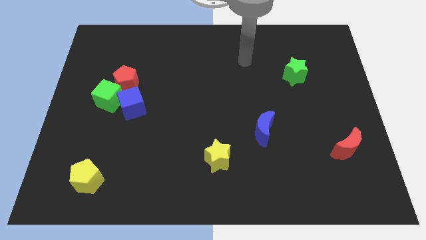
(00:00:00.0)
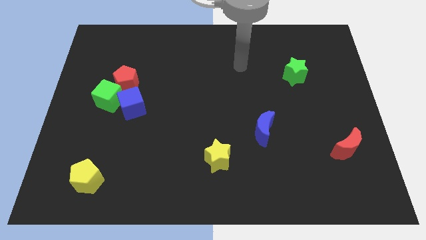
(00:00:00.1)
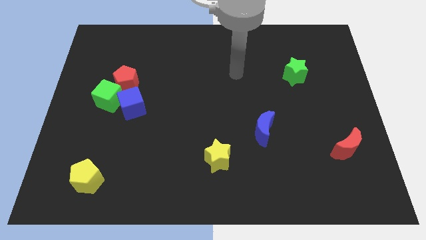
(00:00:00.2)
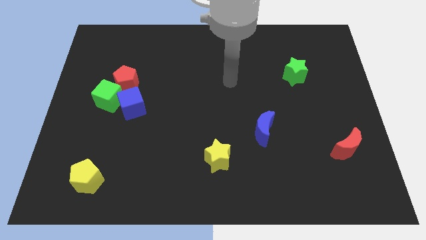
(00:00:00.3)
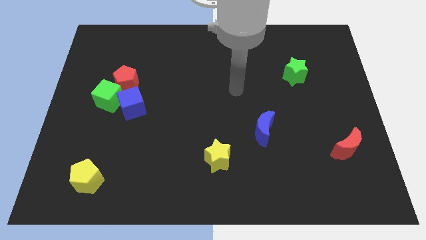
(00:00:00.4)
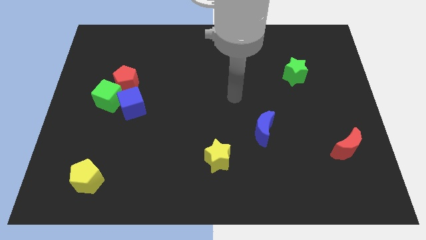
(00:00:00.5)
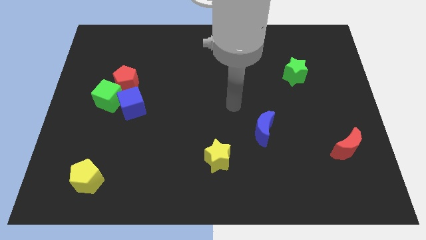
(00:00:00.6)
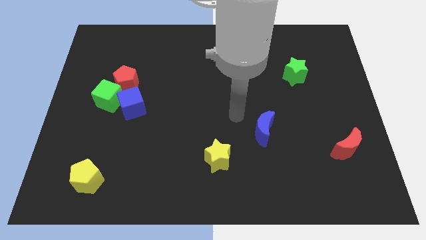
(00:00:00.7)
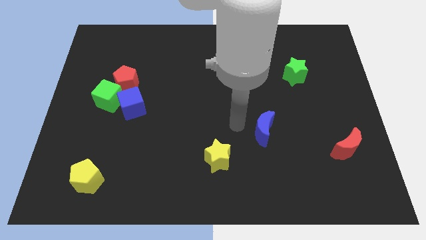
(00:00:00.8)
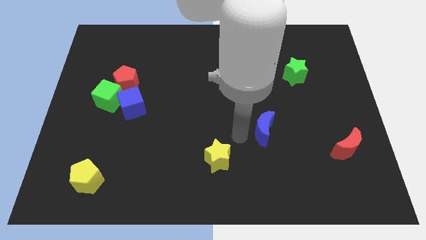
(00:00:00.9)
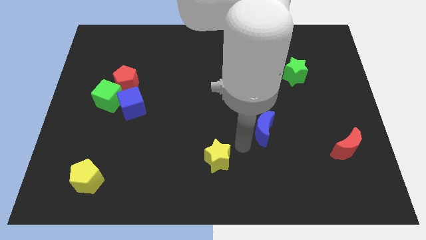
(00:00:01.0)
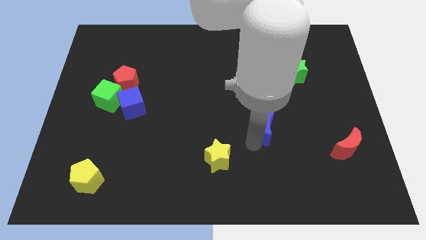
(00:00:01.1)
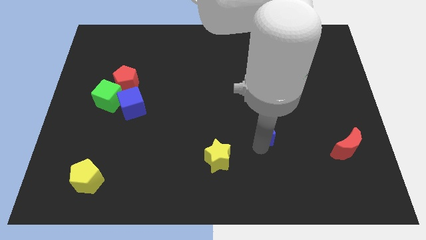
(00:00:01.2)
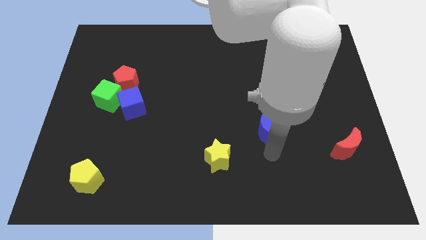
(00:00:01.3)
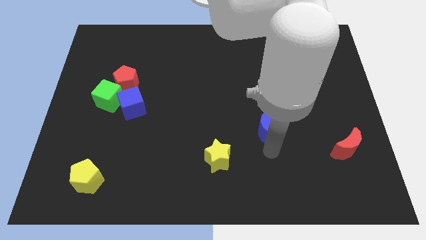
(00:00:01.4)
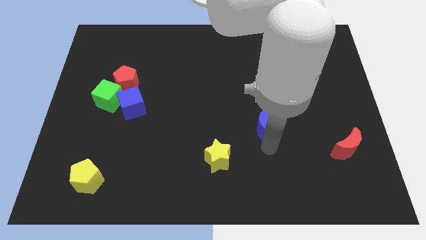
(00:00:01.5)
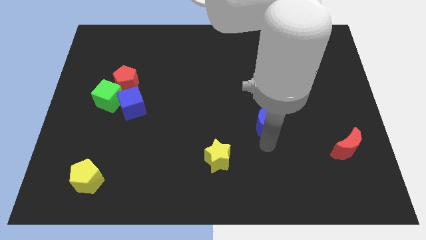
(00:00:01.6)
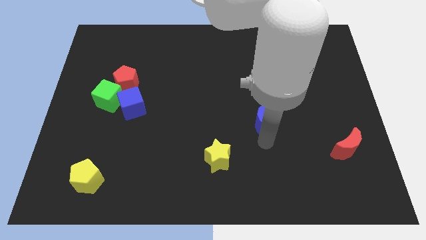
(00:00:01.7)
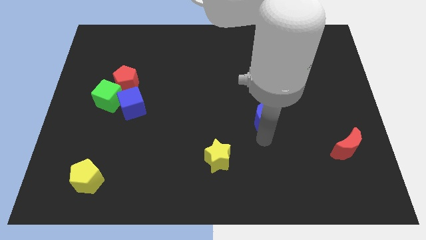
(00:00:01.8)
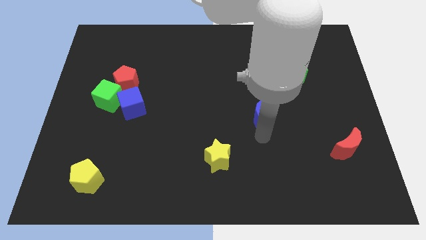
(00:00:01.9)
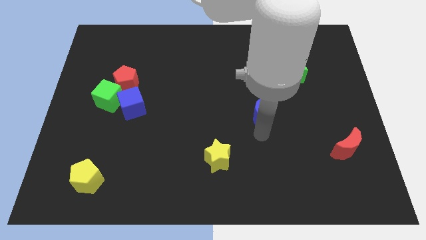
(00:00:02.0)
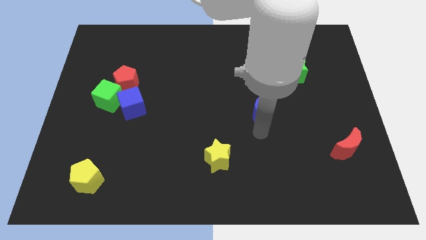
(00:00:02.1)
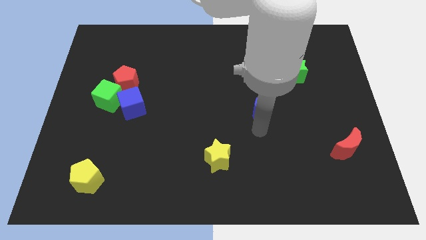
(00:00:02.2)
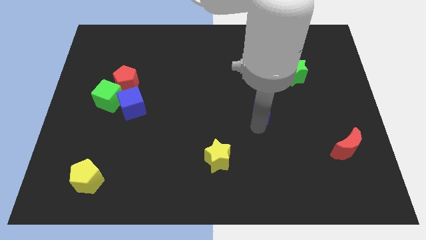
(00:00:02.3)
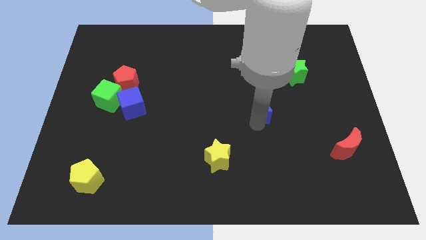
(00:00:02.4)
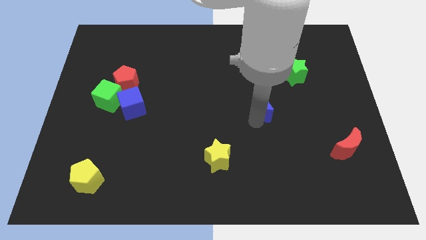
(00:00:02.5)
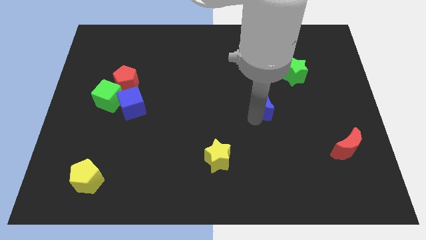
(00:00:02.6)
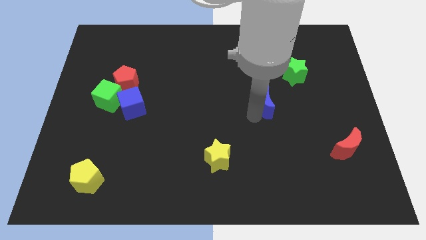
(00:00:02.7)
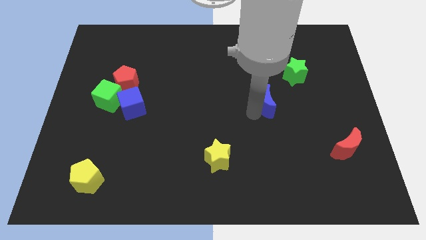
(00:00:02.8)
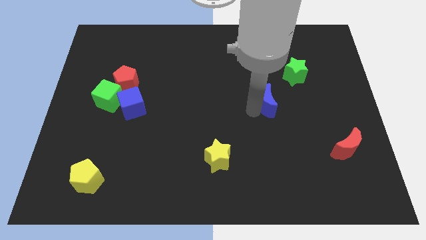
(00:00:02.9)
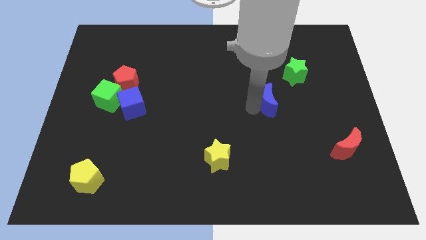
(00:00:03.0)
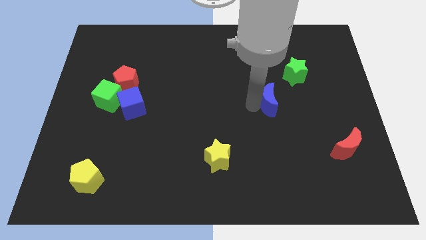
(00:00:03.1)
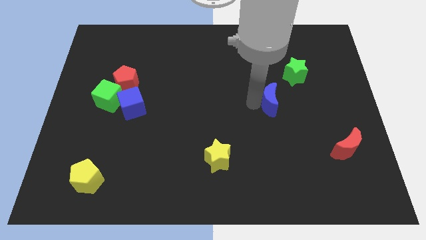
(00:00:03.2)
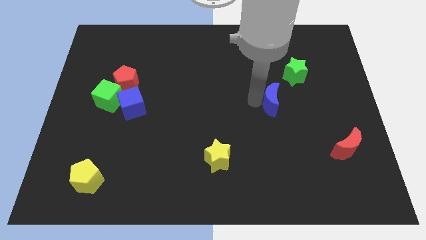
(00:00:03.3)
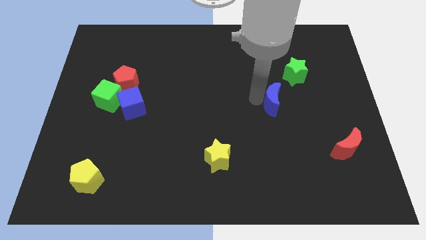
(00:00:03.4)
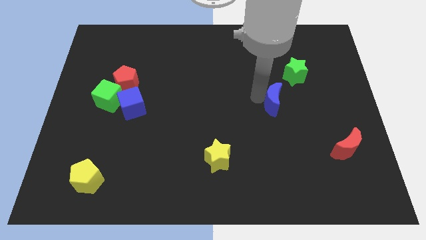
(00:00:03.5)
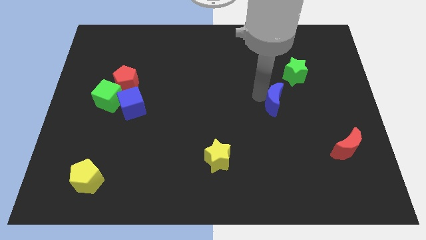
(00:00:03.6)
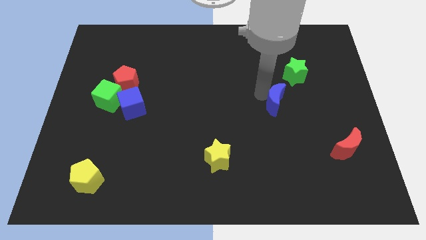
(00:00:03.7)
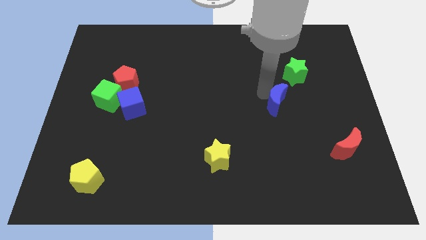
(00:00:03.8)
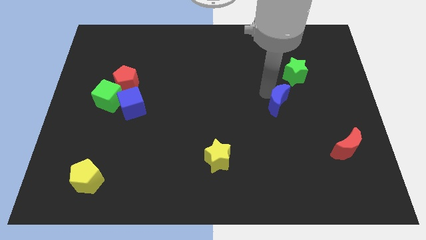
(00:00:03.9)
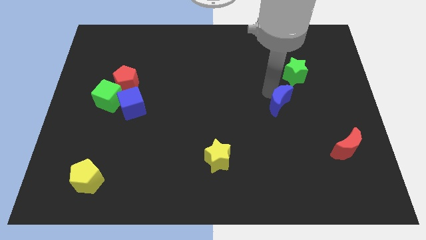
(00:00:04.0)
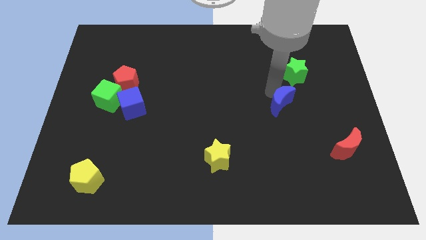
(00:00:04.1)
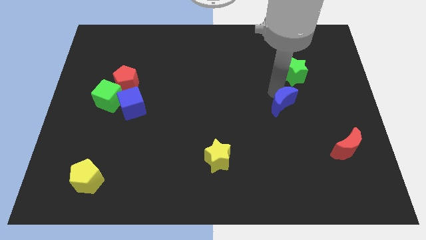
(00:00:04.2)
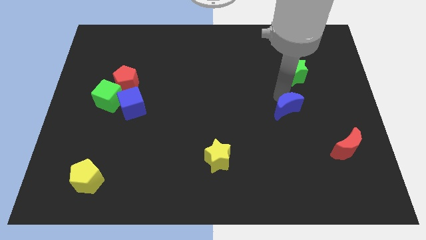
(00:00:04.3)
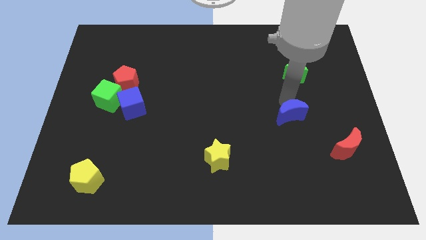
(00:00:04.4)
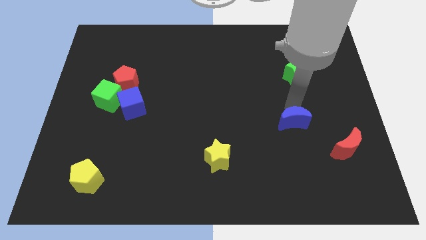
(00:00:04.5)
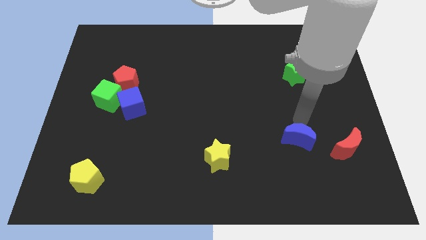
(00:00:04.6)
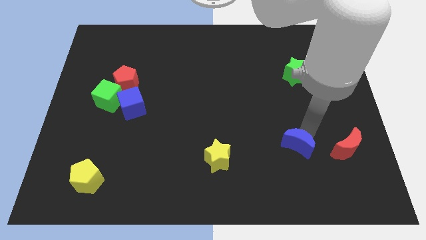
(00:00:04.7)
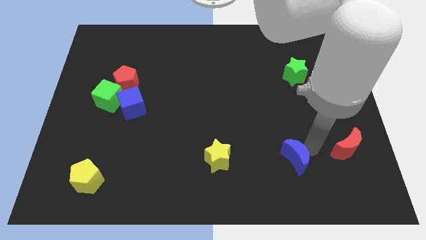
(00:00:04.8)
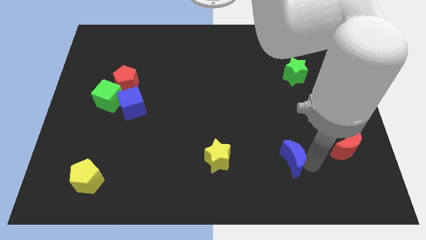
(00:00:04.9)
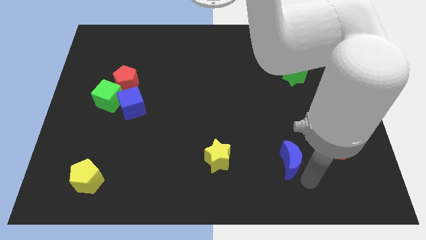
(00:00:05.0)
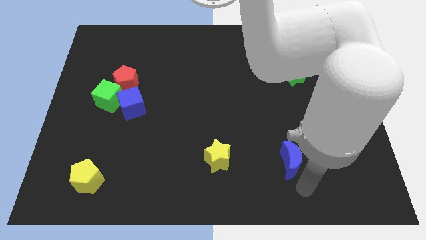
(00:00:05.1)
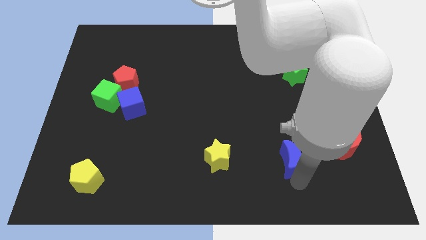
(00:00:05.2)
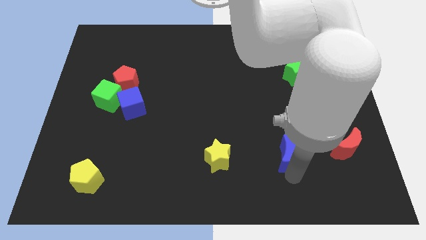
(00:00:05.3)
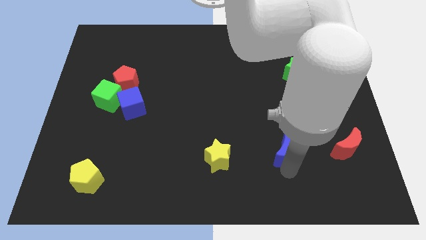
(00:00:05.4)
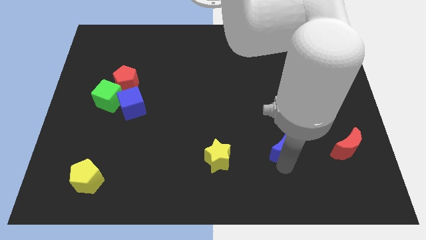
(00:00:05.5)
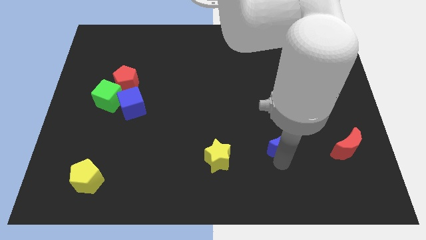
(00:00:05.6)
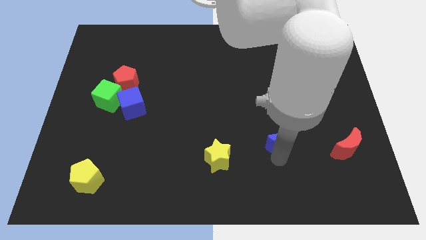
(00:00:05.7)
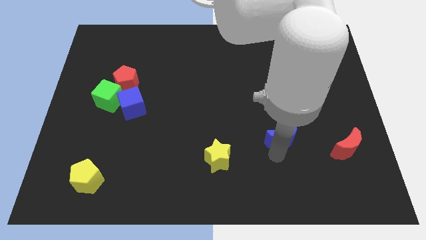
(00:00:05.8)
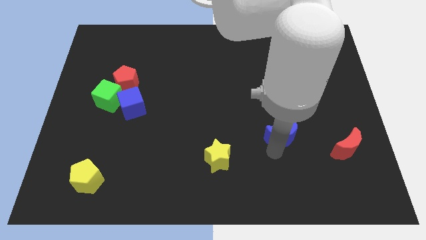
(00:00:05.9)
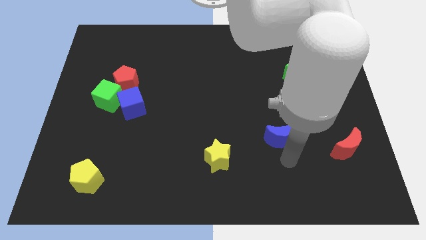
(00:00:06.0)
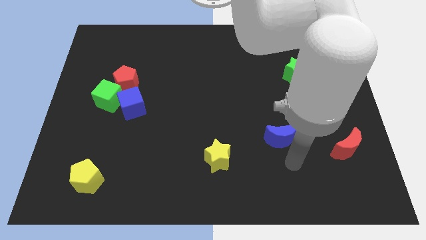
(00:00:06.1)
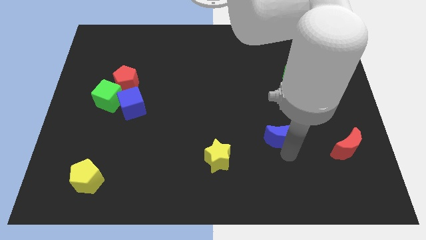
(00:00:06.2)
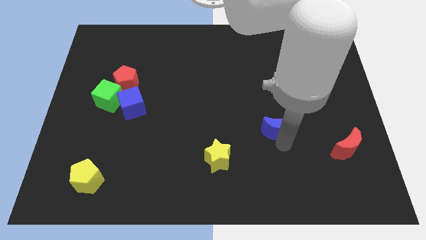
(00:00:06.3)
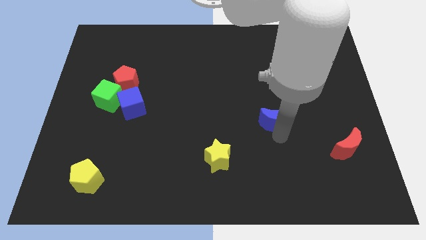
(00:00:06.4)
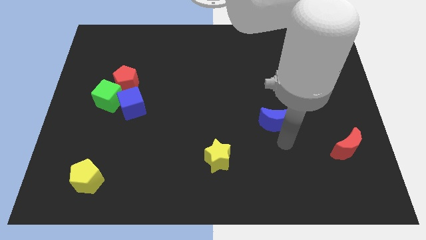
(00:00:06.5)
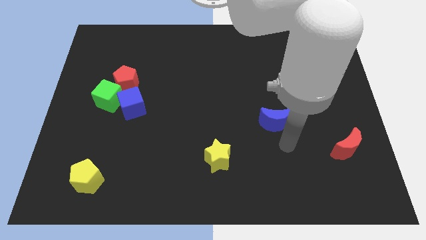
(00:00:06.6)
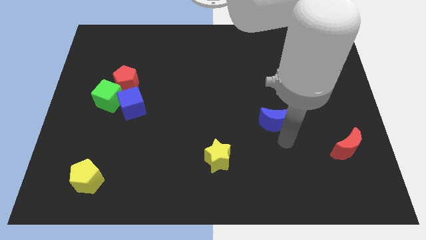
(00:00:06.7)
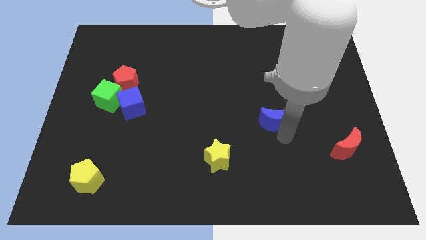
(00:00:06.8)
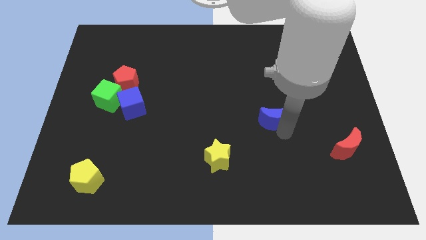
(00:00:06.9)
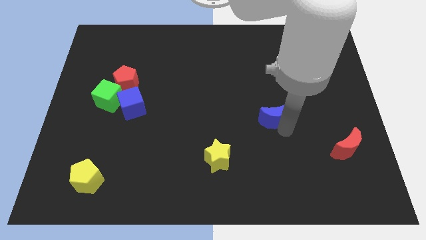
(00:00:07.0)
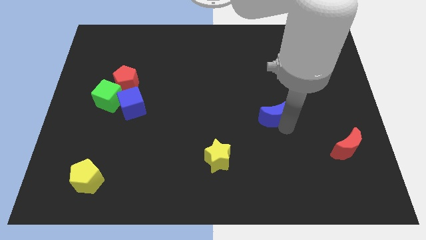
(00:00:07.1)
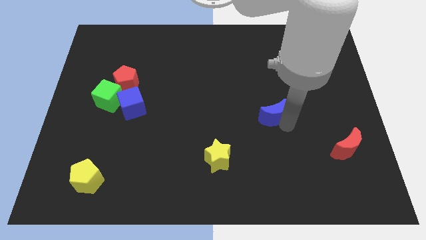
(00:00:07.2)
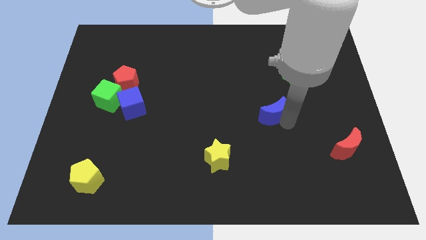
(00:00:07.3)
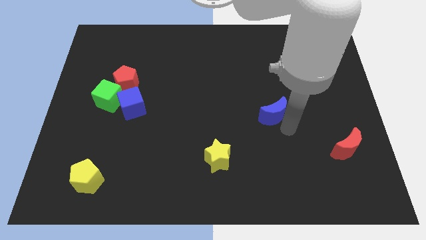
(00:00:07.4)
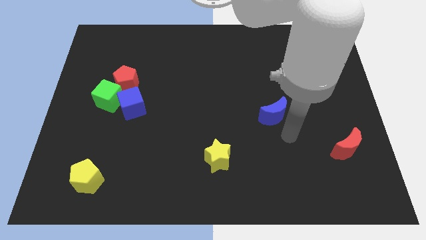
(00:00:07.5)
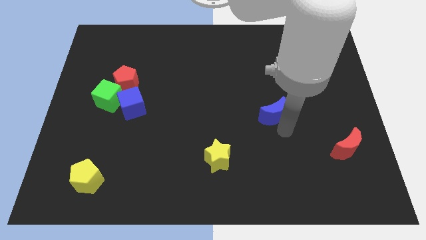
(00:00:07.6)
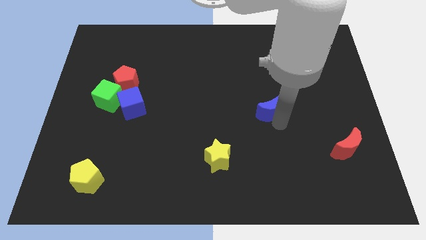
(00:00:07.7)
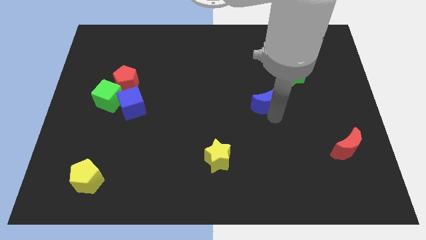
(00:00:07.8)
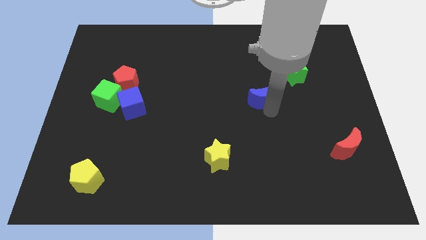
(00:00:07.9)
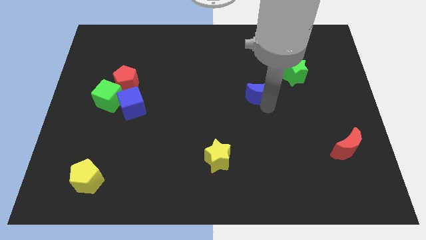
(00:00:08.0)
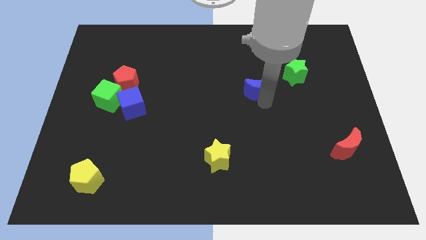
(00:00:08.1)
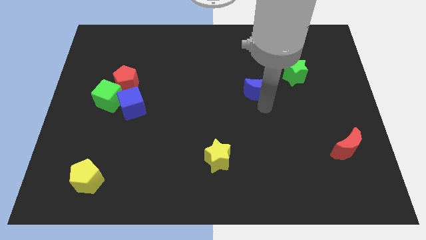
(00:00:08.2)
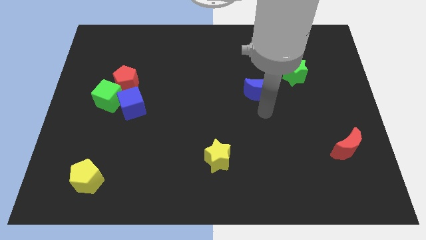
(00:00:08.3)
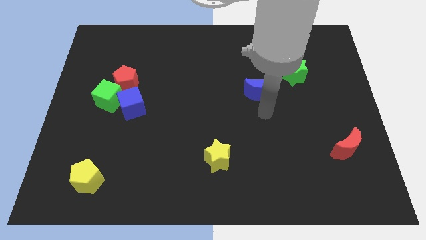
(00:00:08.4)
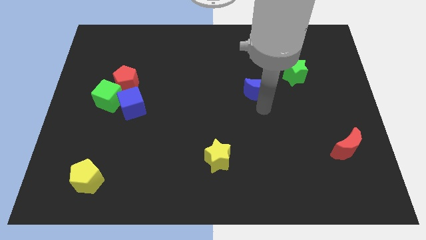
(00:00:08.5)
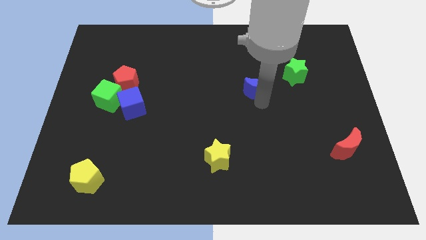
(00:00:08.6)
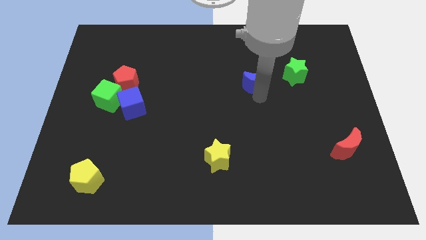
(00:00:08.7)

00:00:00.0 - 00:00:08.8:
slide the blue moon left of the green star
